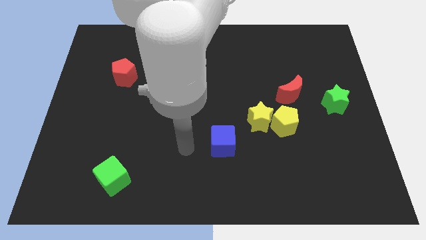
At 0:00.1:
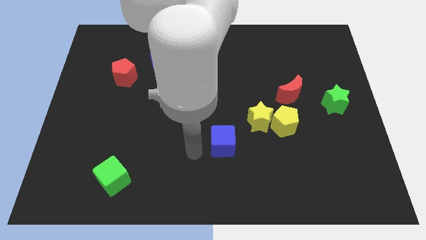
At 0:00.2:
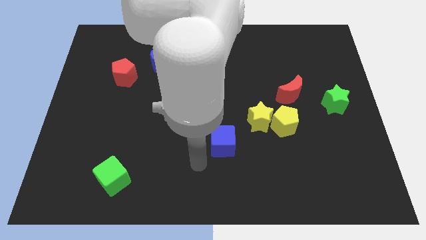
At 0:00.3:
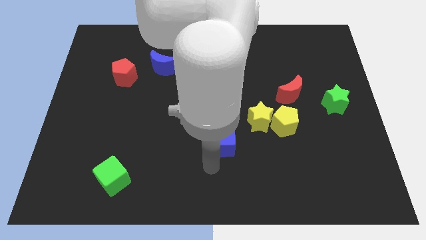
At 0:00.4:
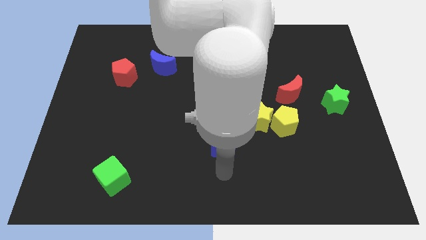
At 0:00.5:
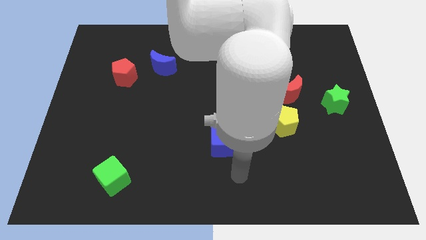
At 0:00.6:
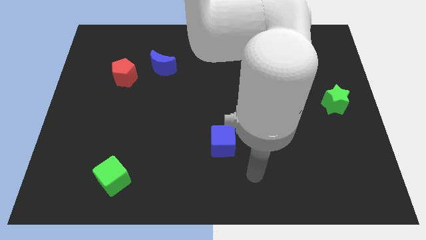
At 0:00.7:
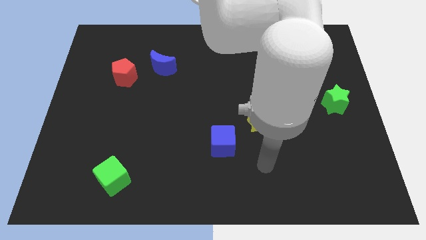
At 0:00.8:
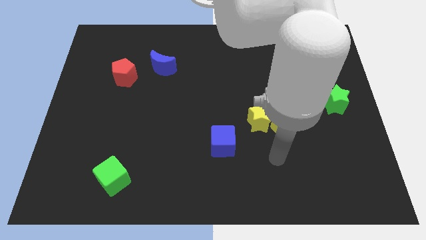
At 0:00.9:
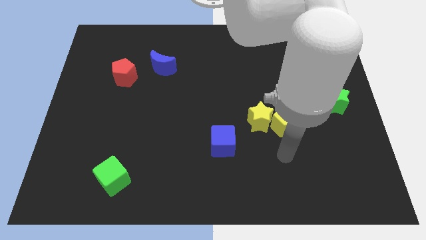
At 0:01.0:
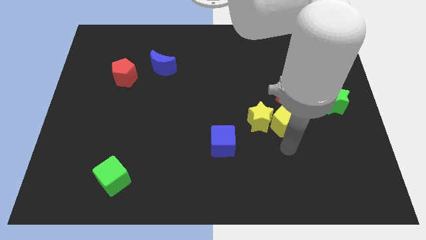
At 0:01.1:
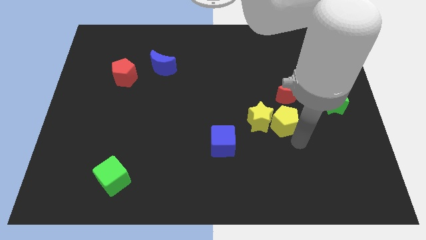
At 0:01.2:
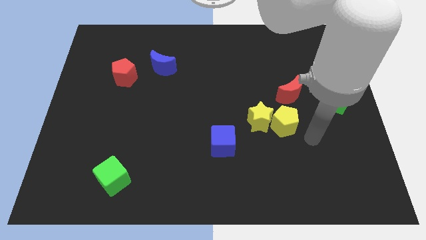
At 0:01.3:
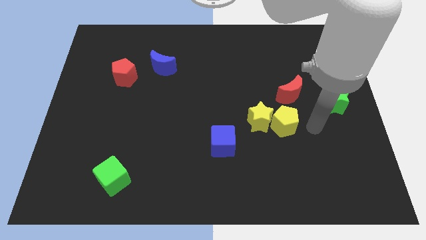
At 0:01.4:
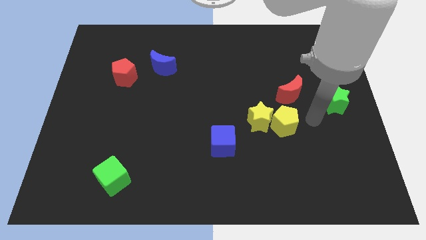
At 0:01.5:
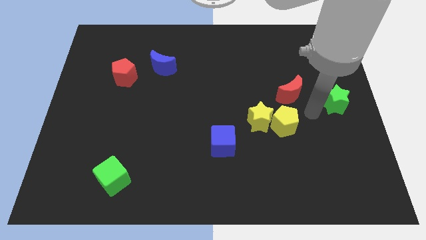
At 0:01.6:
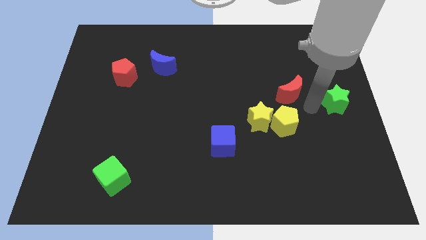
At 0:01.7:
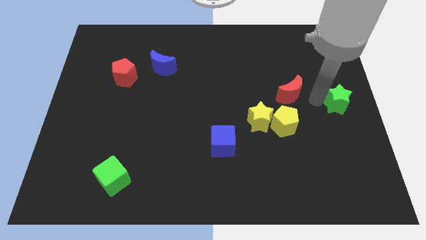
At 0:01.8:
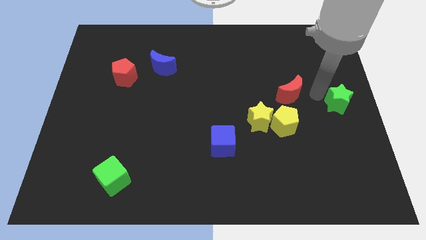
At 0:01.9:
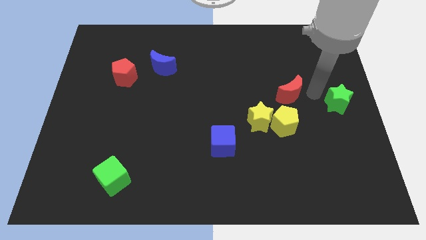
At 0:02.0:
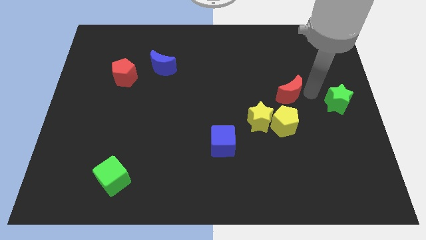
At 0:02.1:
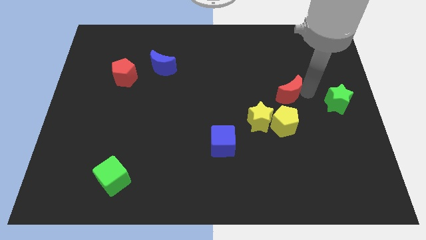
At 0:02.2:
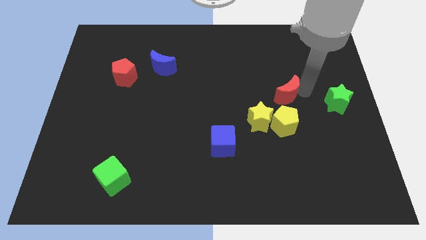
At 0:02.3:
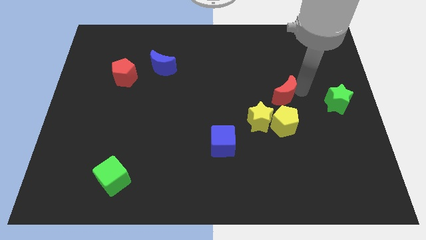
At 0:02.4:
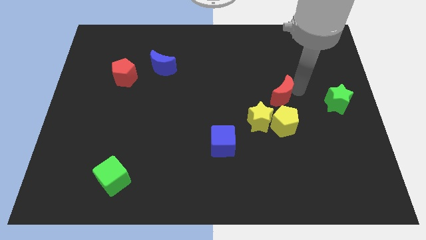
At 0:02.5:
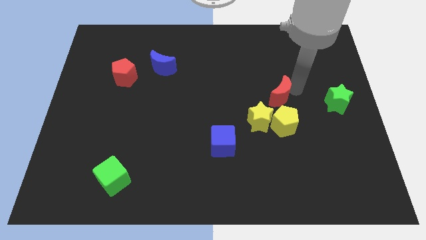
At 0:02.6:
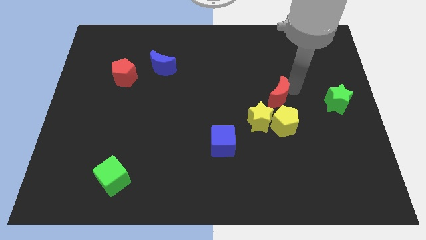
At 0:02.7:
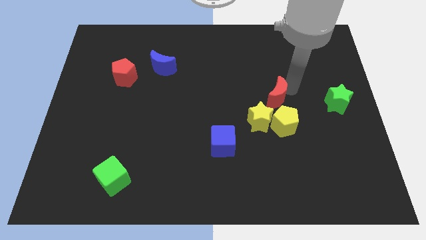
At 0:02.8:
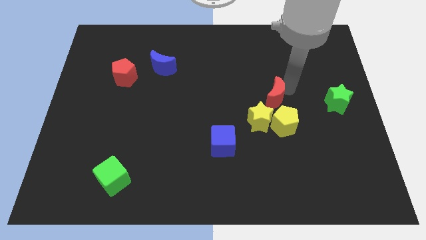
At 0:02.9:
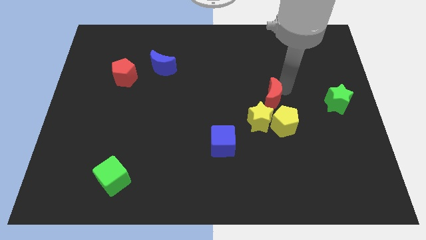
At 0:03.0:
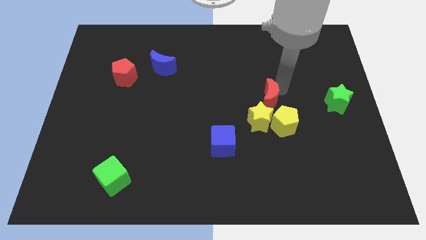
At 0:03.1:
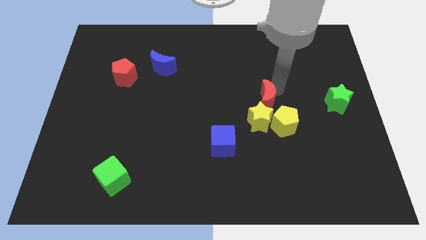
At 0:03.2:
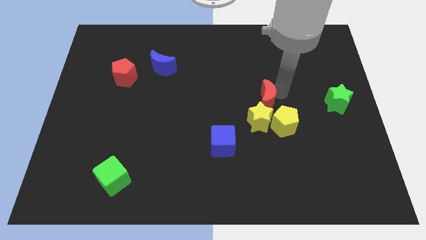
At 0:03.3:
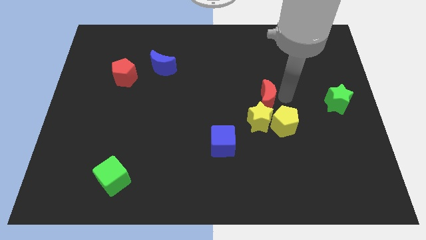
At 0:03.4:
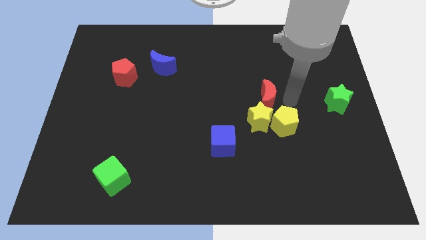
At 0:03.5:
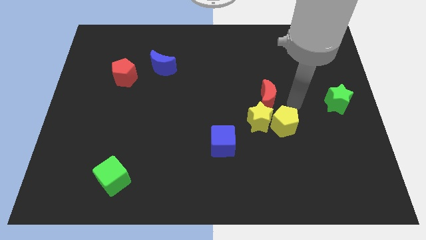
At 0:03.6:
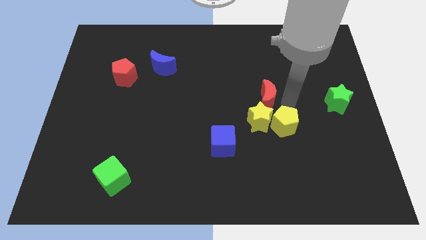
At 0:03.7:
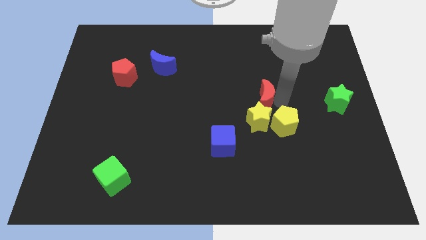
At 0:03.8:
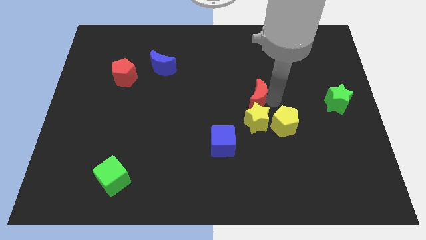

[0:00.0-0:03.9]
slide the red moon left a bit

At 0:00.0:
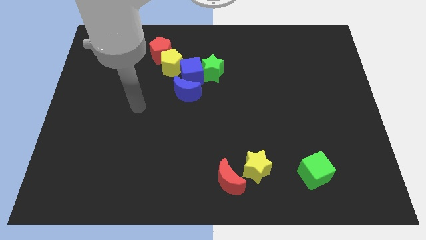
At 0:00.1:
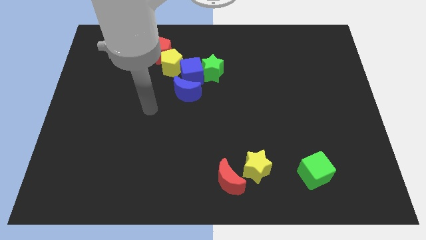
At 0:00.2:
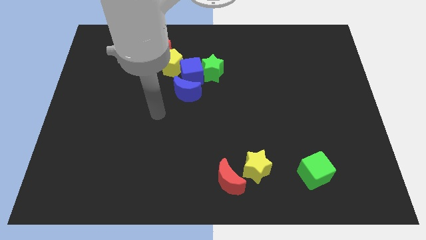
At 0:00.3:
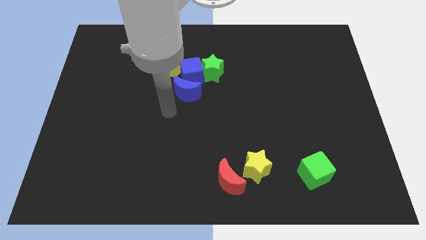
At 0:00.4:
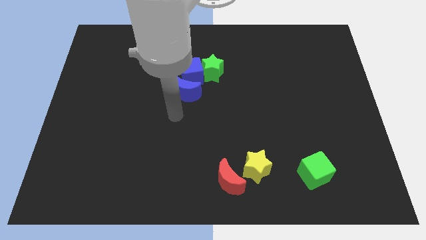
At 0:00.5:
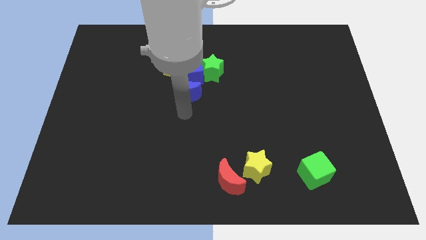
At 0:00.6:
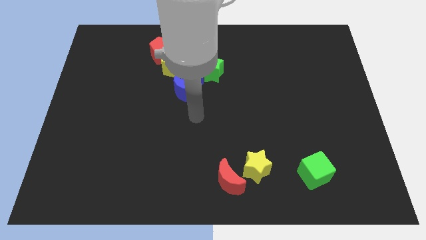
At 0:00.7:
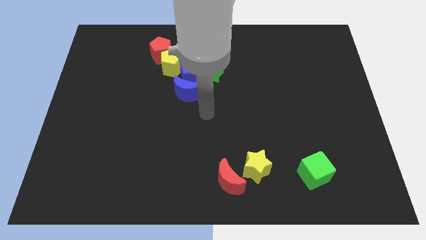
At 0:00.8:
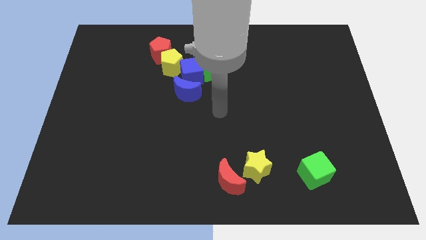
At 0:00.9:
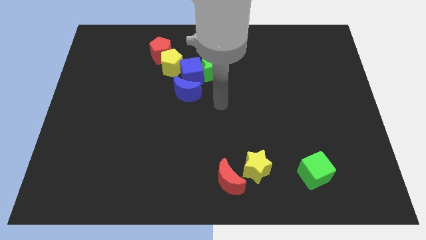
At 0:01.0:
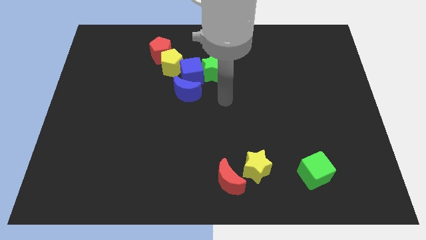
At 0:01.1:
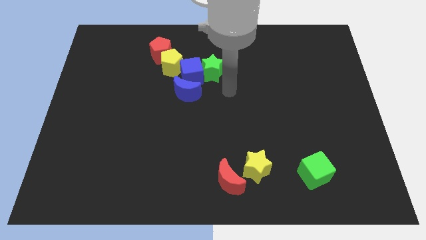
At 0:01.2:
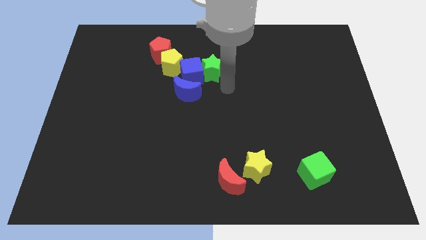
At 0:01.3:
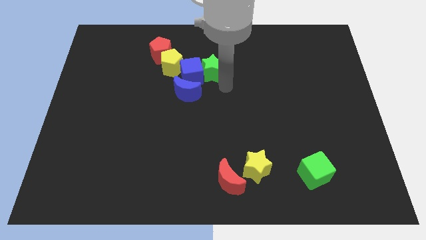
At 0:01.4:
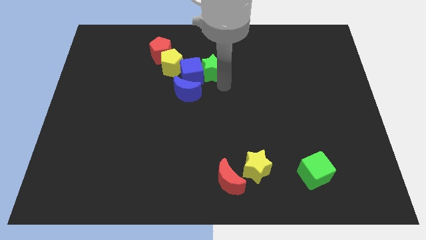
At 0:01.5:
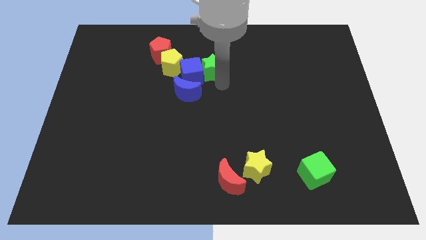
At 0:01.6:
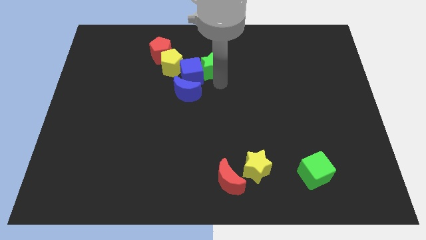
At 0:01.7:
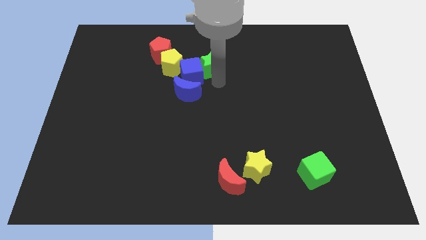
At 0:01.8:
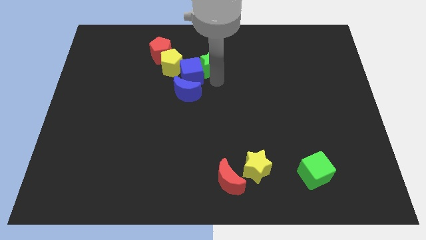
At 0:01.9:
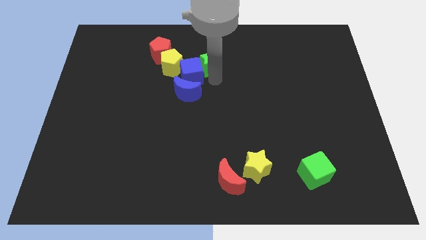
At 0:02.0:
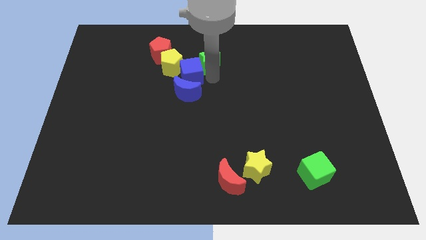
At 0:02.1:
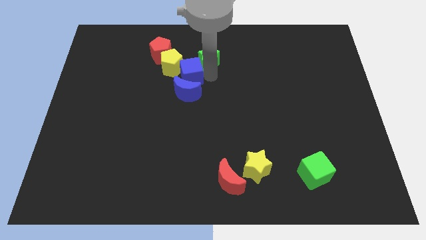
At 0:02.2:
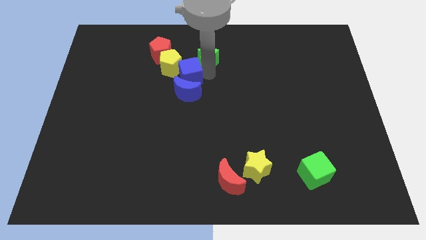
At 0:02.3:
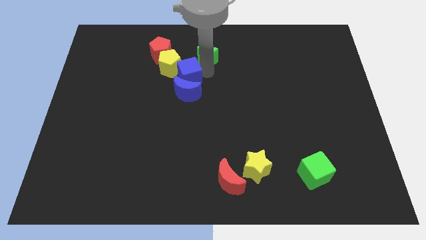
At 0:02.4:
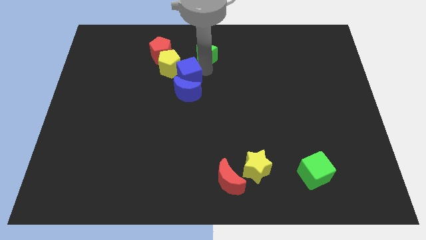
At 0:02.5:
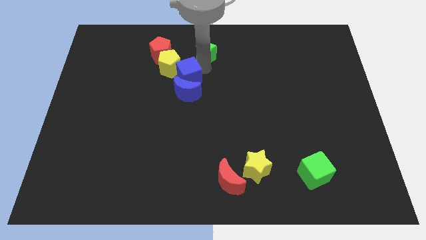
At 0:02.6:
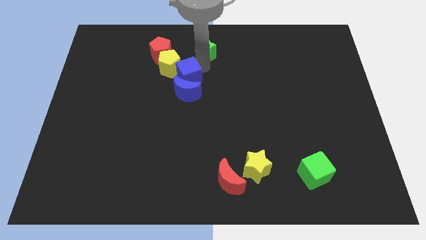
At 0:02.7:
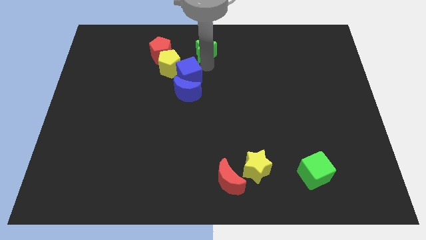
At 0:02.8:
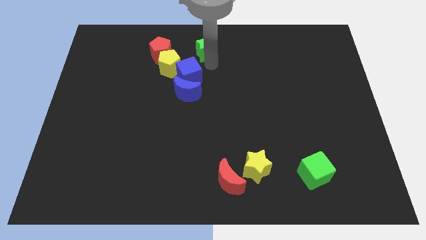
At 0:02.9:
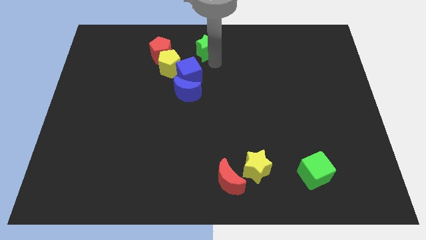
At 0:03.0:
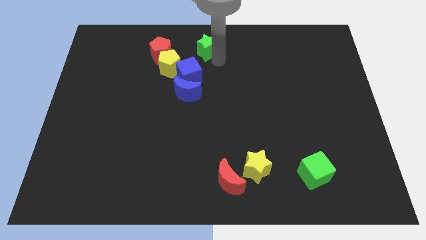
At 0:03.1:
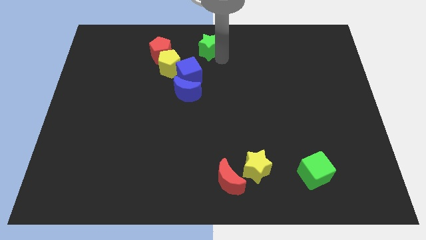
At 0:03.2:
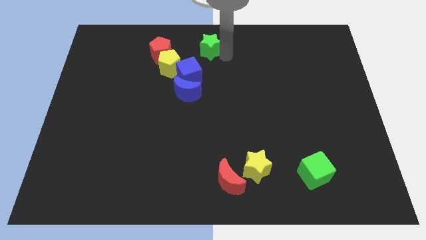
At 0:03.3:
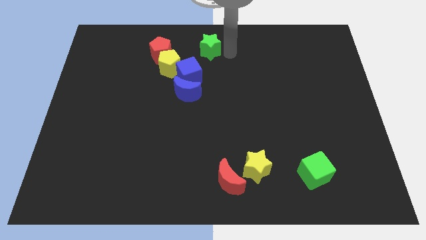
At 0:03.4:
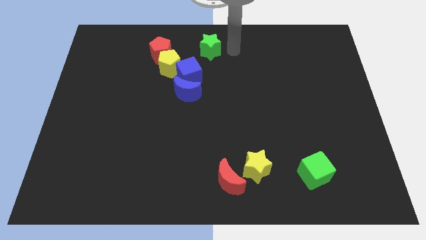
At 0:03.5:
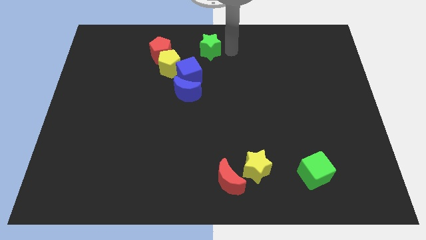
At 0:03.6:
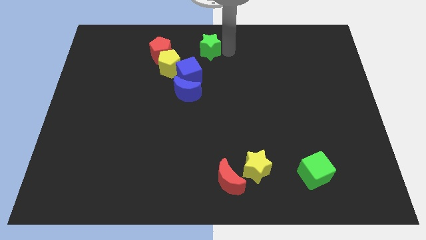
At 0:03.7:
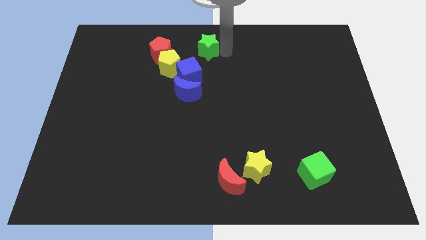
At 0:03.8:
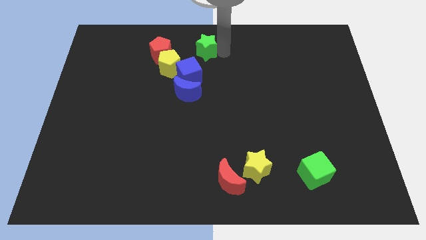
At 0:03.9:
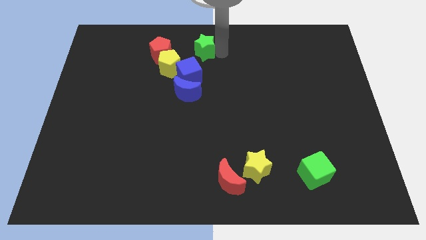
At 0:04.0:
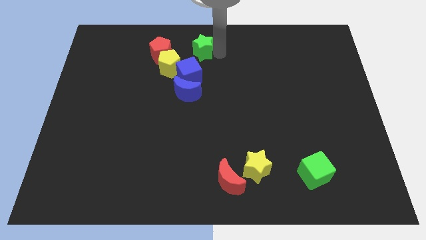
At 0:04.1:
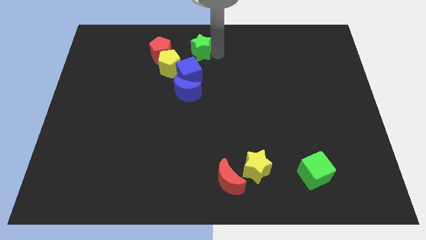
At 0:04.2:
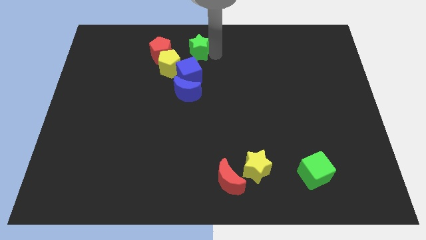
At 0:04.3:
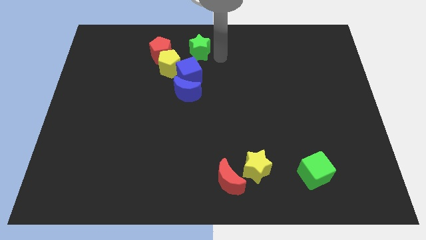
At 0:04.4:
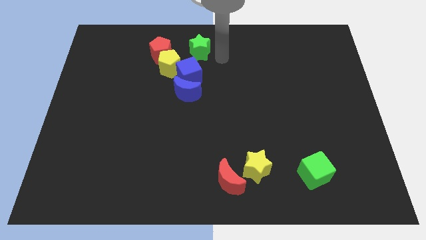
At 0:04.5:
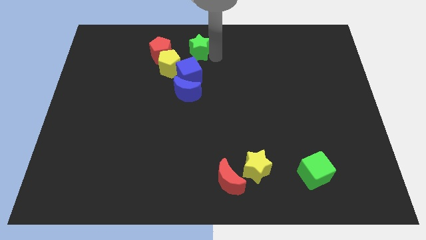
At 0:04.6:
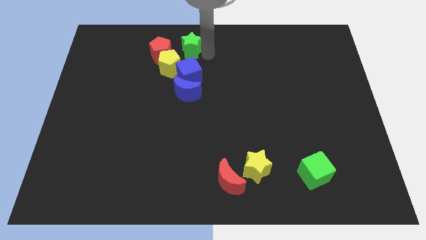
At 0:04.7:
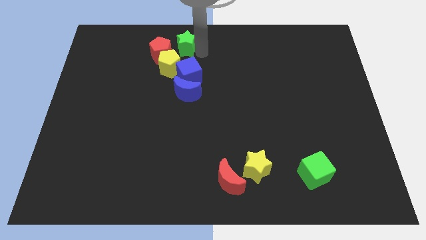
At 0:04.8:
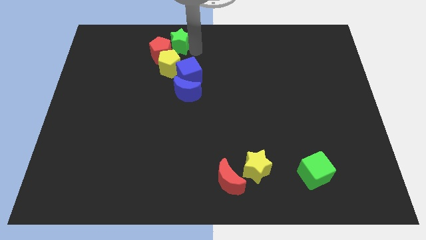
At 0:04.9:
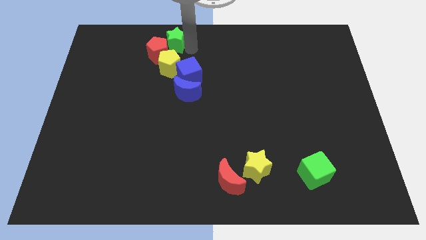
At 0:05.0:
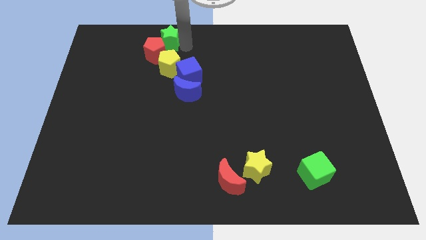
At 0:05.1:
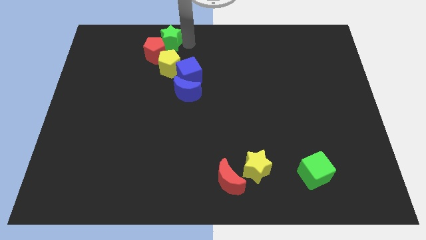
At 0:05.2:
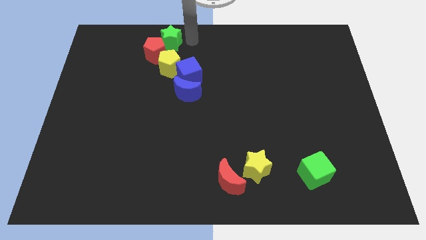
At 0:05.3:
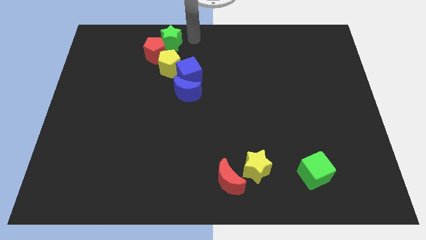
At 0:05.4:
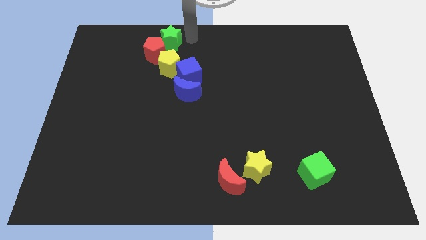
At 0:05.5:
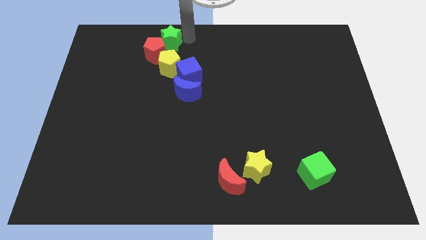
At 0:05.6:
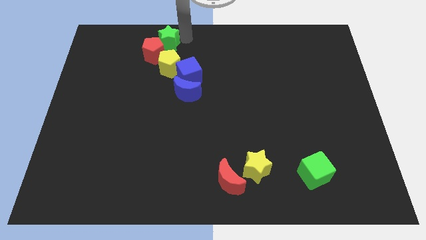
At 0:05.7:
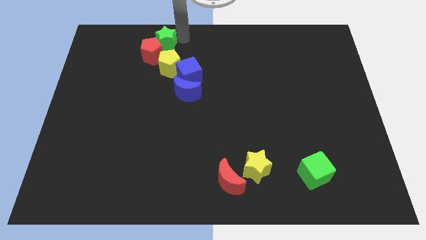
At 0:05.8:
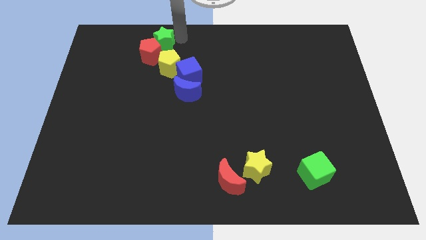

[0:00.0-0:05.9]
slightly push the green star to the left
